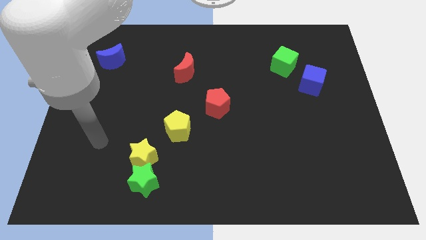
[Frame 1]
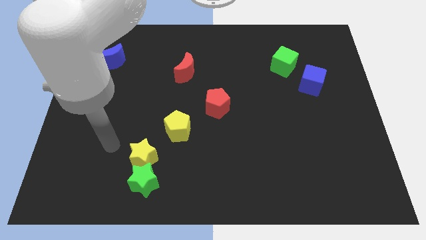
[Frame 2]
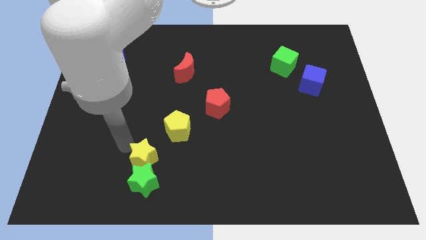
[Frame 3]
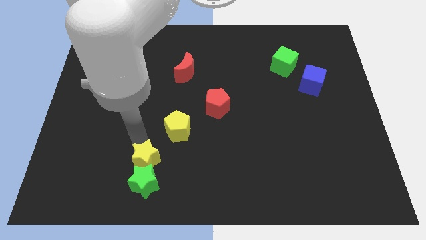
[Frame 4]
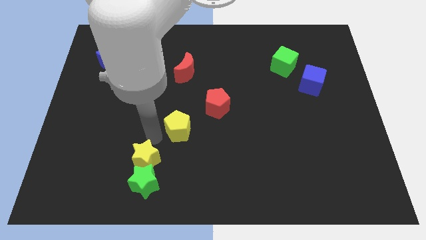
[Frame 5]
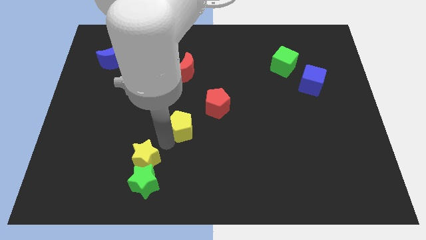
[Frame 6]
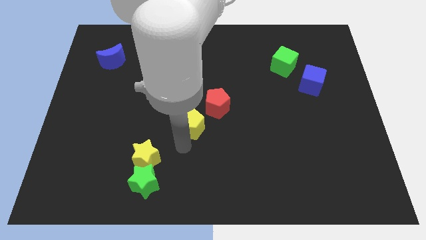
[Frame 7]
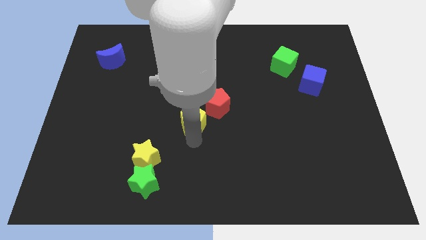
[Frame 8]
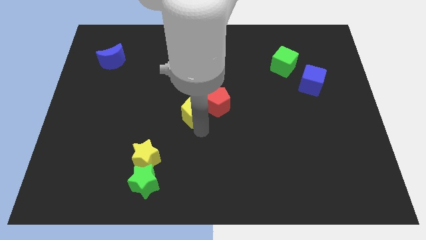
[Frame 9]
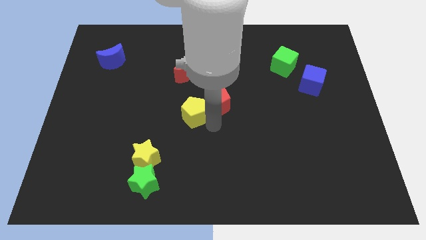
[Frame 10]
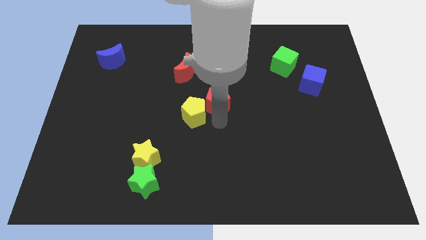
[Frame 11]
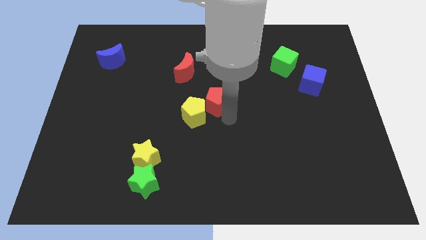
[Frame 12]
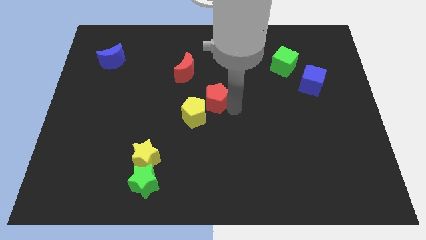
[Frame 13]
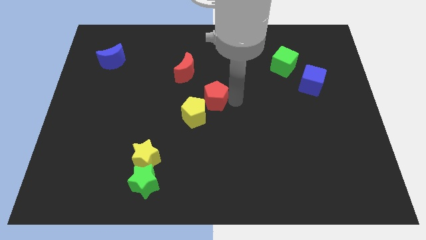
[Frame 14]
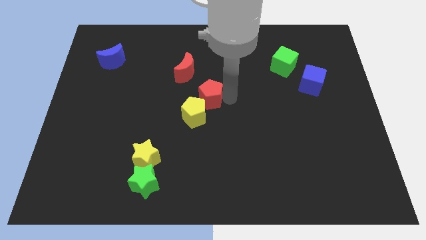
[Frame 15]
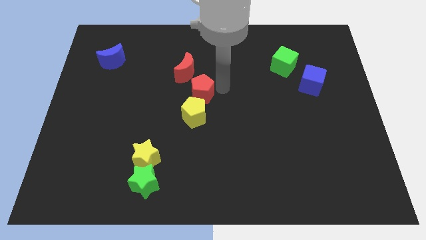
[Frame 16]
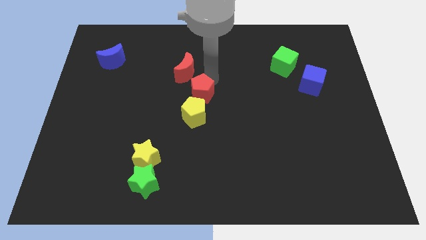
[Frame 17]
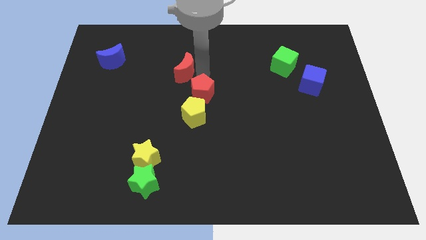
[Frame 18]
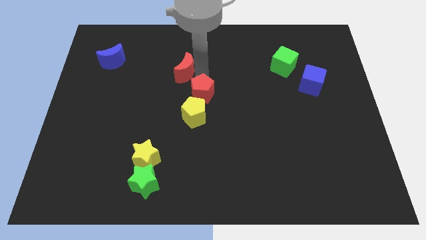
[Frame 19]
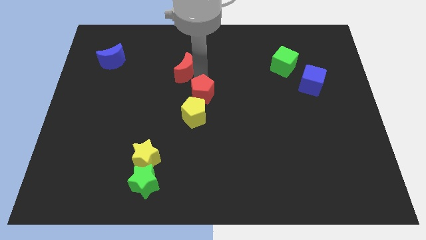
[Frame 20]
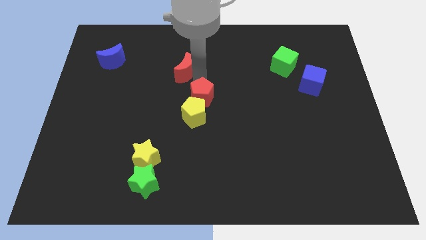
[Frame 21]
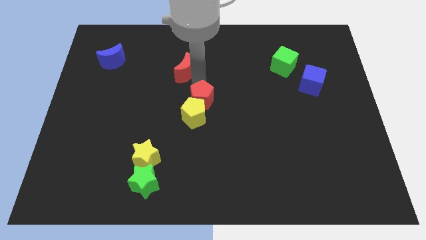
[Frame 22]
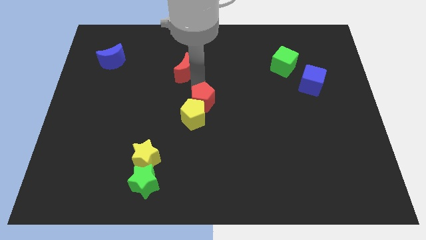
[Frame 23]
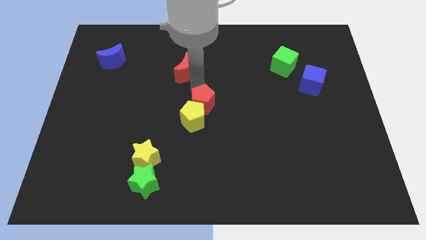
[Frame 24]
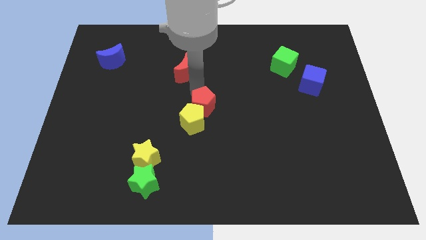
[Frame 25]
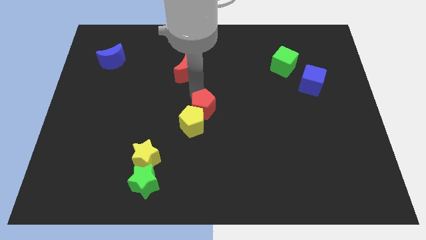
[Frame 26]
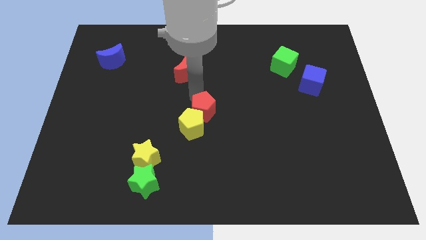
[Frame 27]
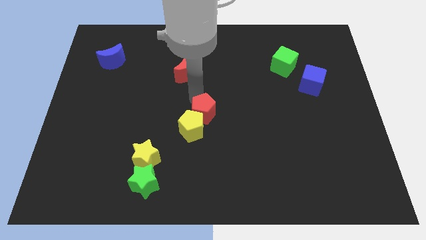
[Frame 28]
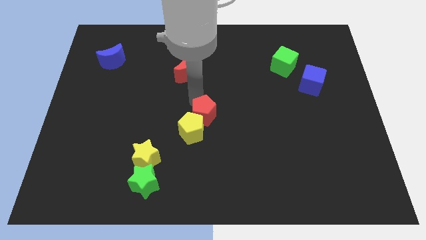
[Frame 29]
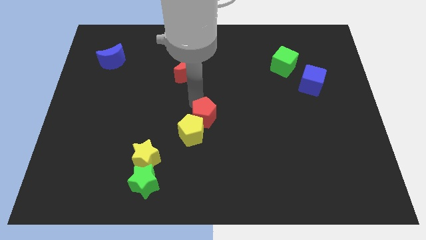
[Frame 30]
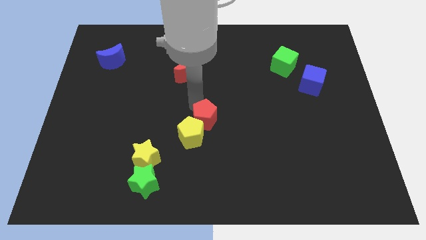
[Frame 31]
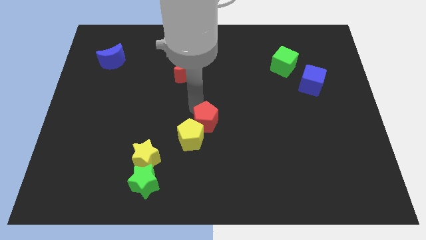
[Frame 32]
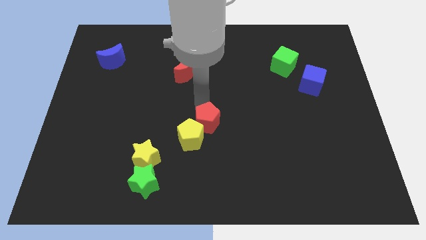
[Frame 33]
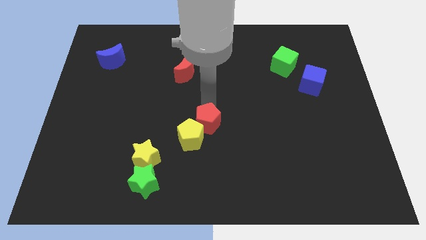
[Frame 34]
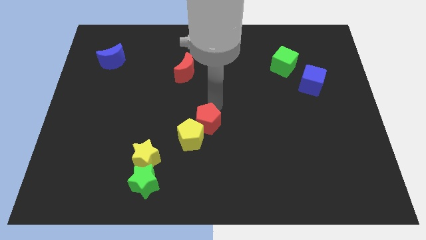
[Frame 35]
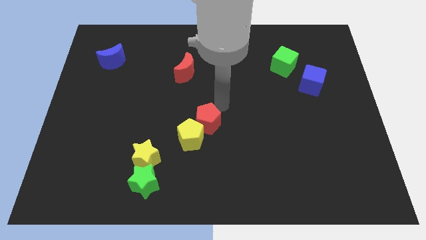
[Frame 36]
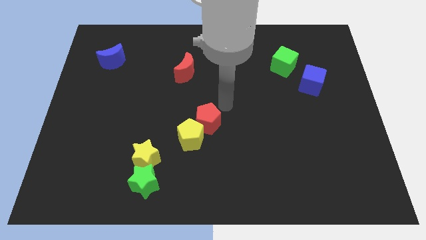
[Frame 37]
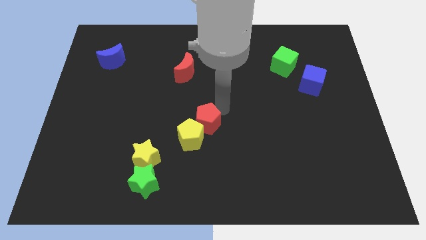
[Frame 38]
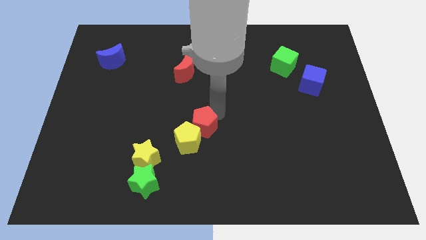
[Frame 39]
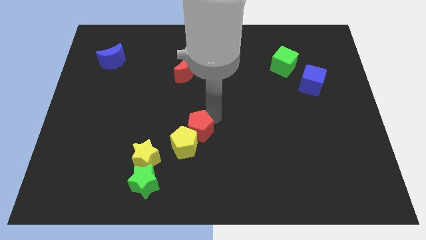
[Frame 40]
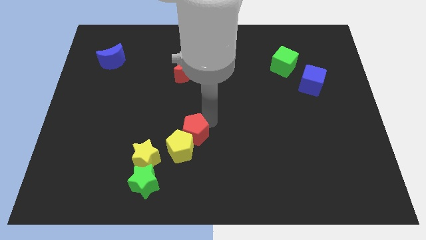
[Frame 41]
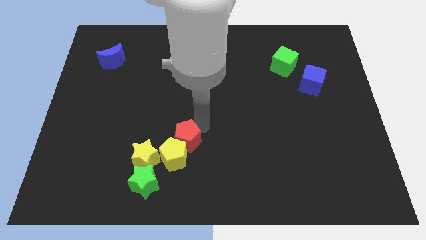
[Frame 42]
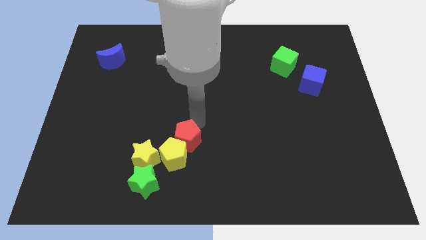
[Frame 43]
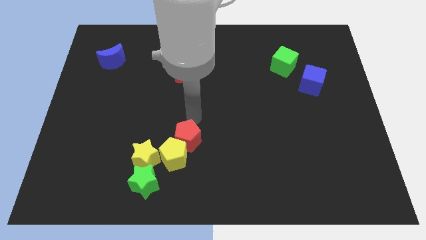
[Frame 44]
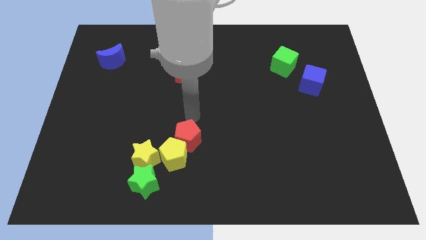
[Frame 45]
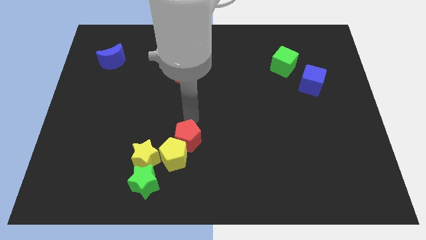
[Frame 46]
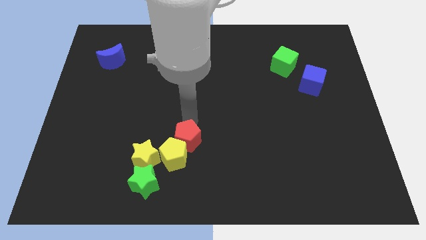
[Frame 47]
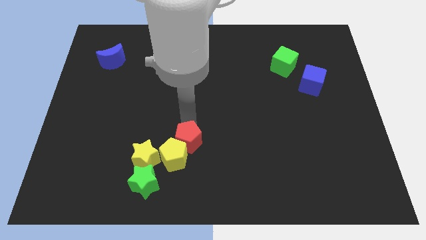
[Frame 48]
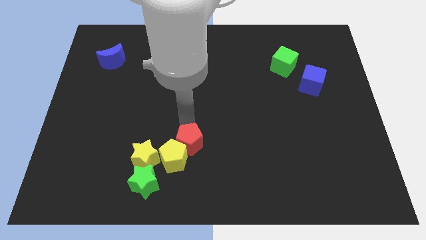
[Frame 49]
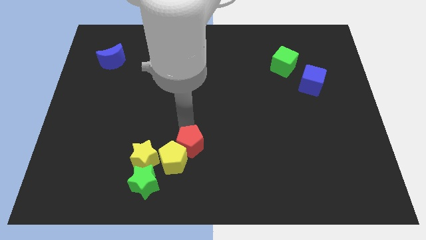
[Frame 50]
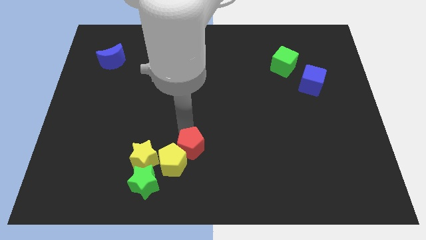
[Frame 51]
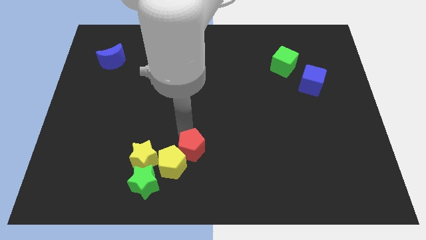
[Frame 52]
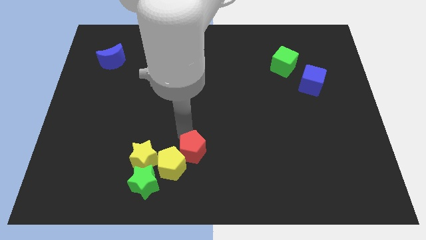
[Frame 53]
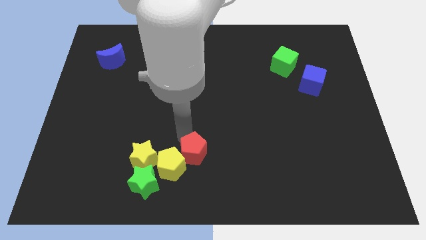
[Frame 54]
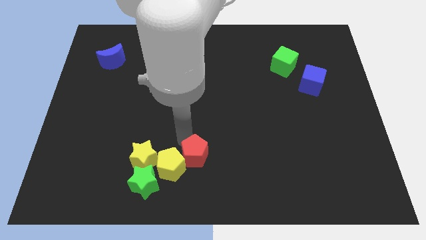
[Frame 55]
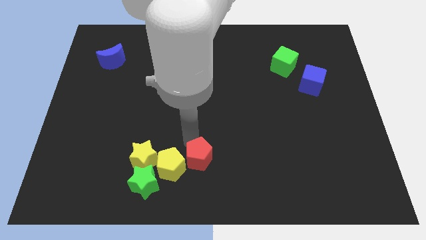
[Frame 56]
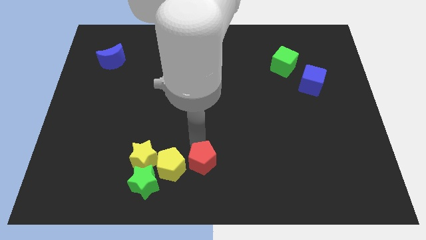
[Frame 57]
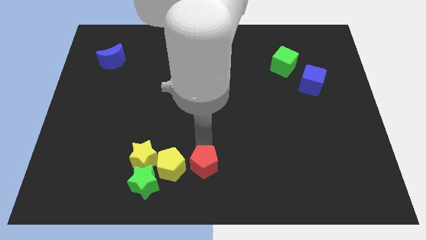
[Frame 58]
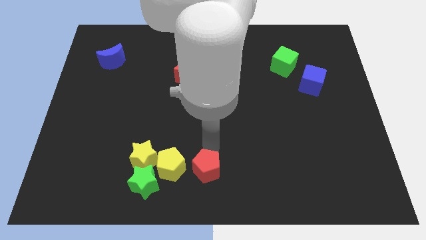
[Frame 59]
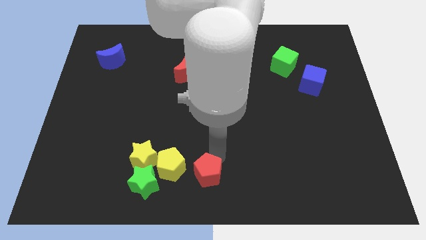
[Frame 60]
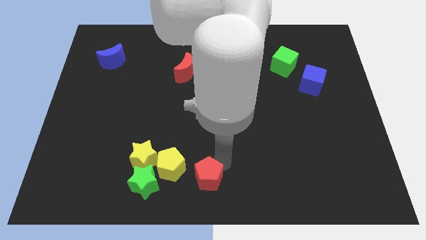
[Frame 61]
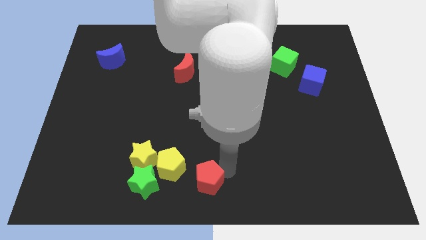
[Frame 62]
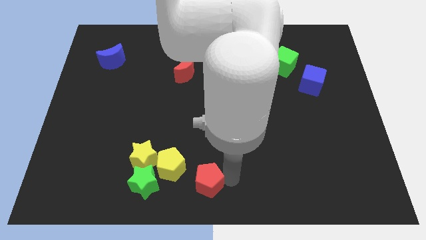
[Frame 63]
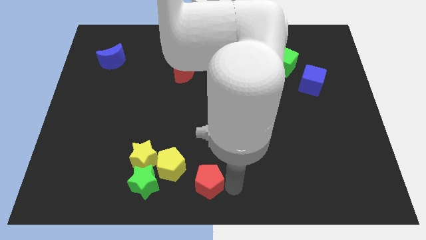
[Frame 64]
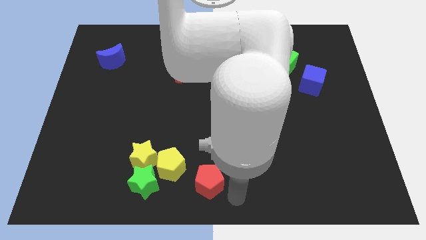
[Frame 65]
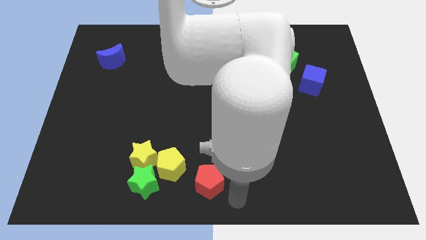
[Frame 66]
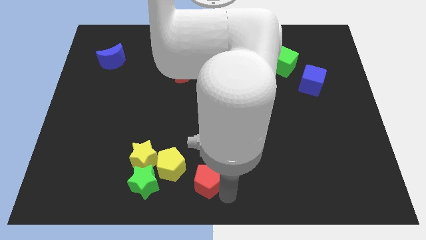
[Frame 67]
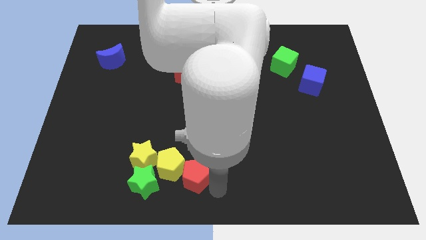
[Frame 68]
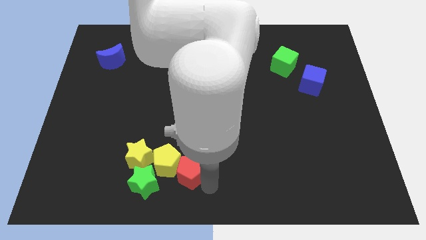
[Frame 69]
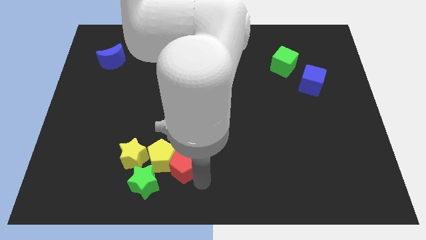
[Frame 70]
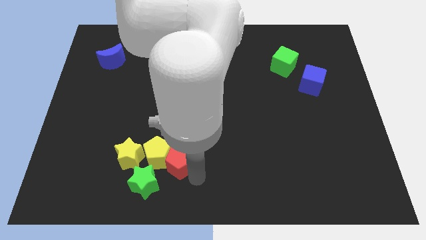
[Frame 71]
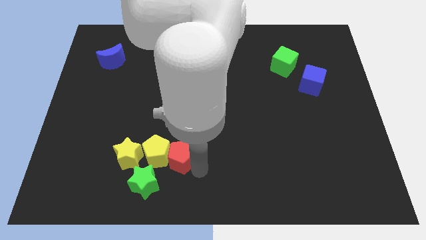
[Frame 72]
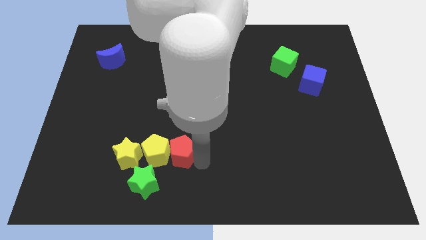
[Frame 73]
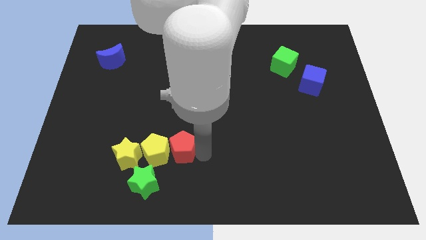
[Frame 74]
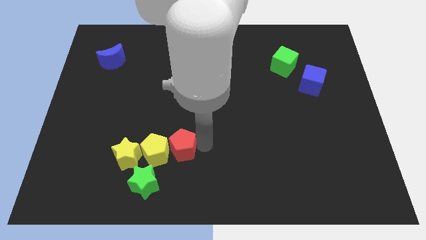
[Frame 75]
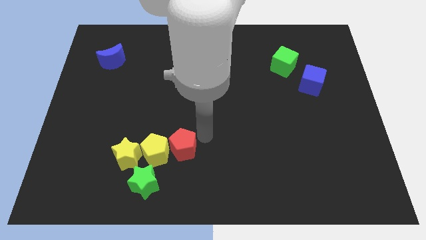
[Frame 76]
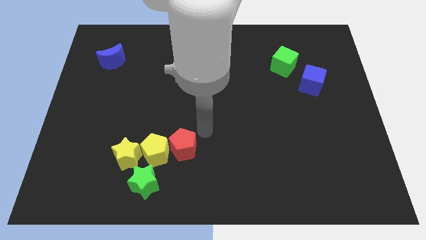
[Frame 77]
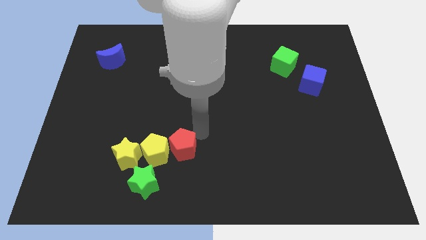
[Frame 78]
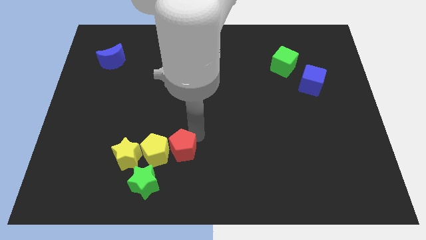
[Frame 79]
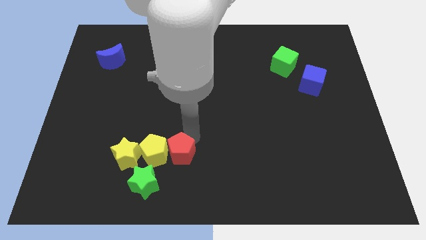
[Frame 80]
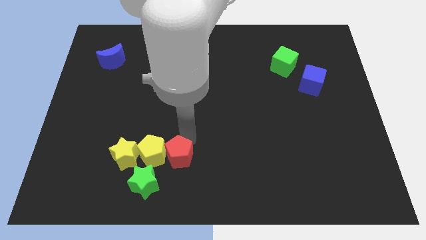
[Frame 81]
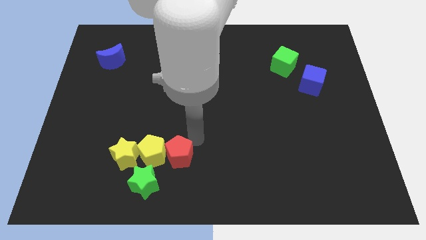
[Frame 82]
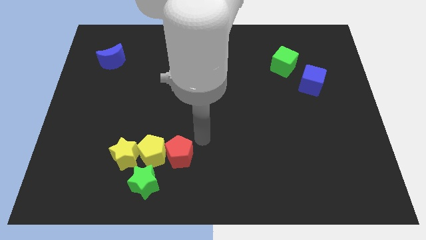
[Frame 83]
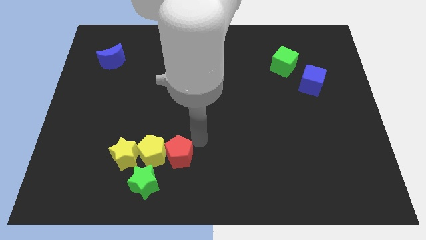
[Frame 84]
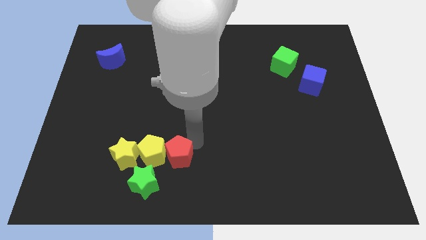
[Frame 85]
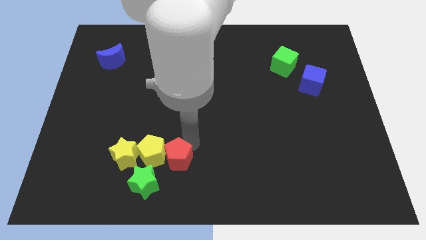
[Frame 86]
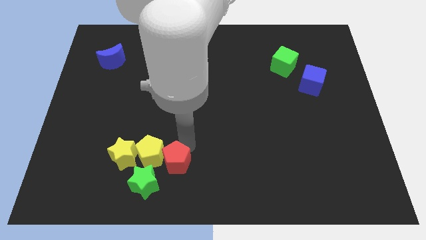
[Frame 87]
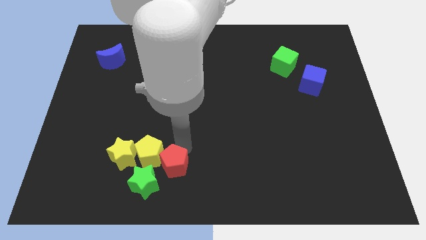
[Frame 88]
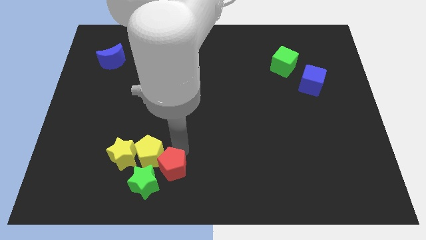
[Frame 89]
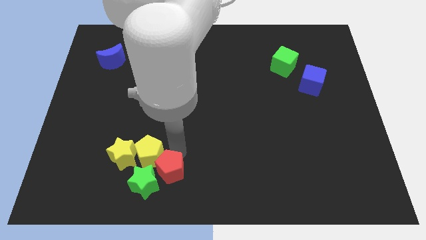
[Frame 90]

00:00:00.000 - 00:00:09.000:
put the red pentagon towards the green star
